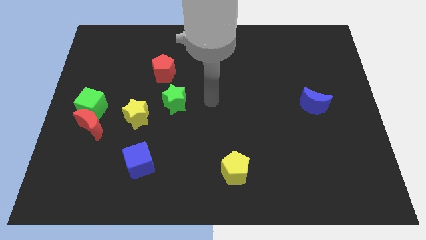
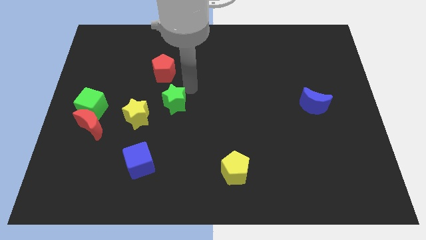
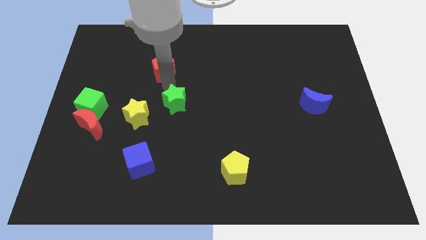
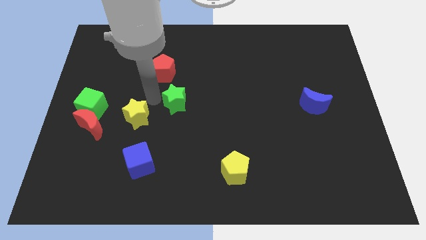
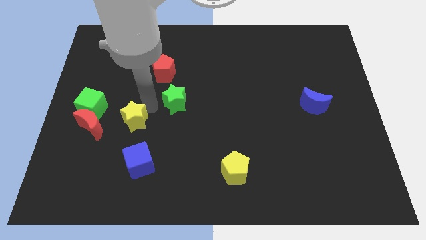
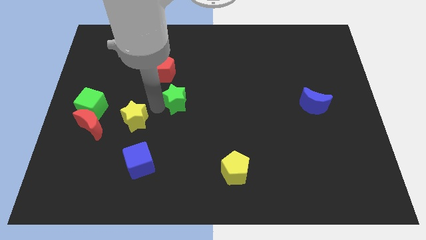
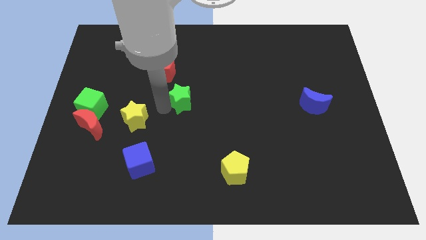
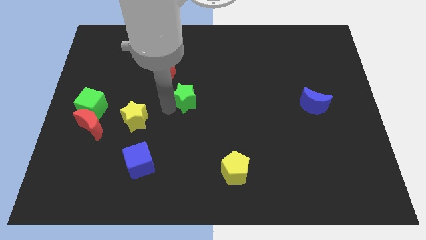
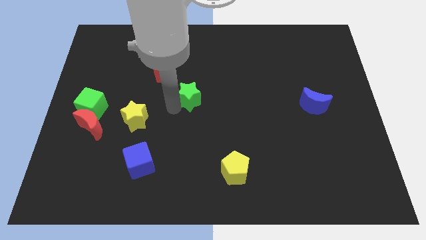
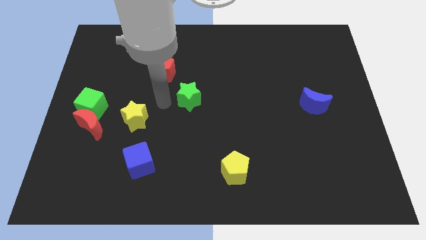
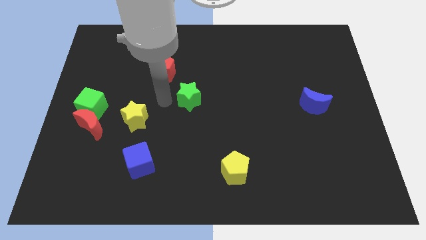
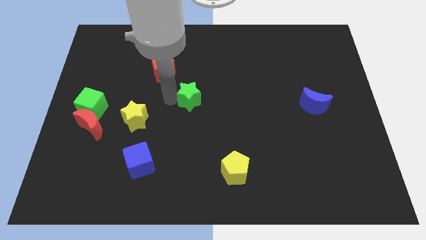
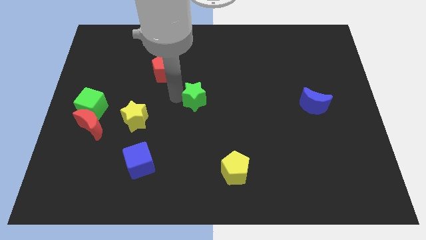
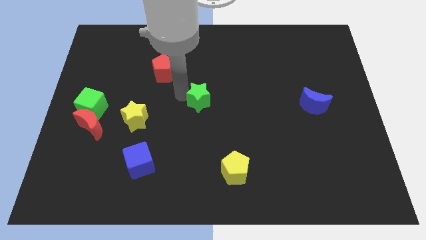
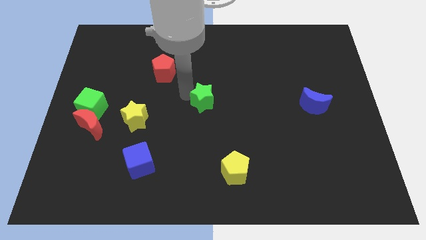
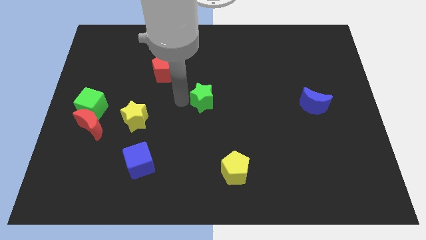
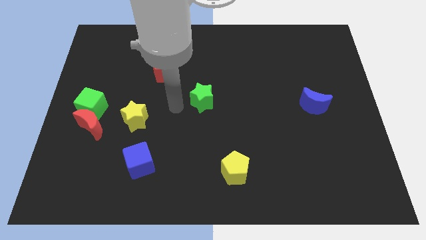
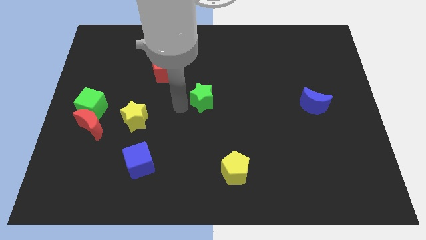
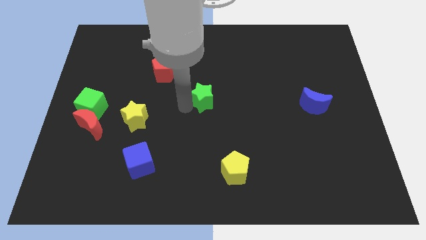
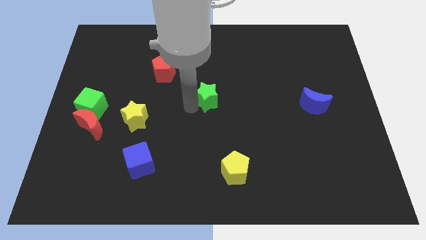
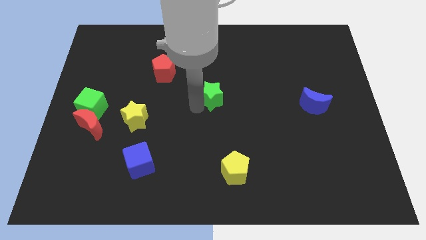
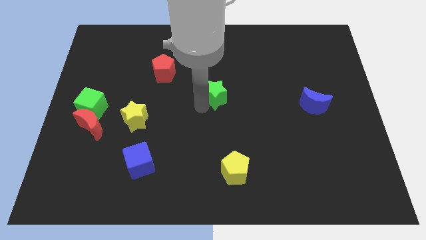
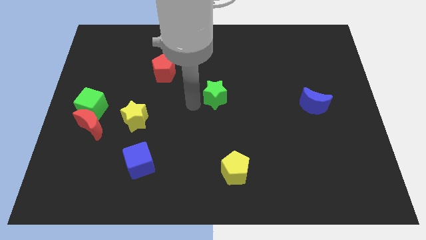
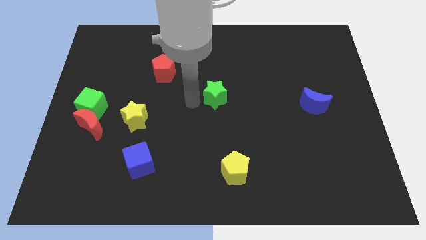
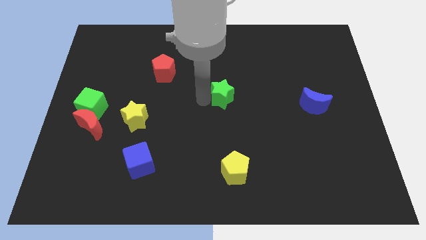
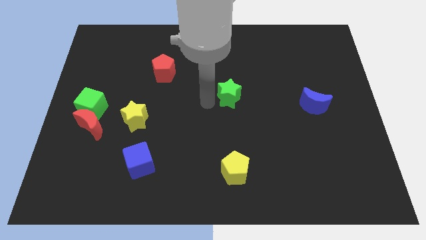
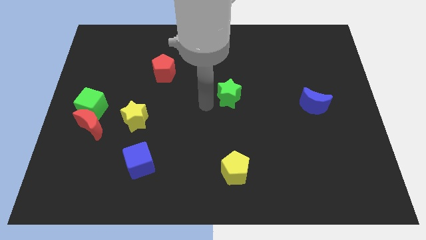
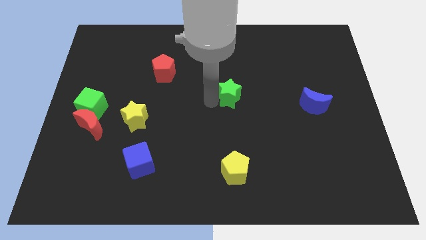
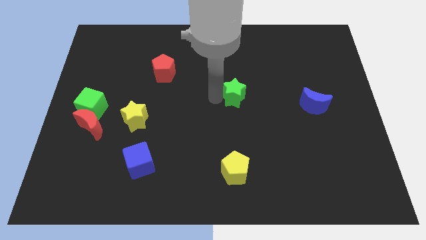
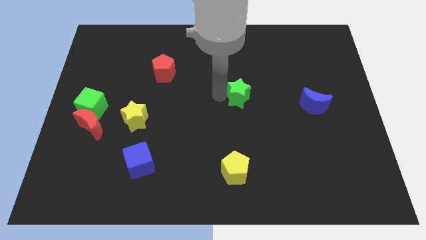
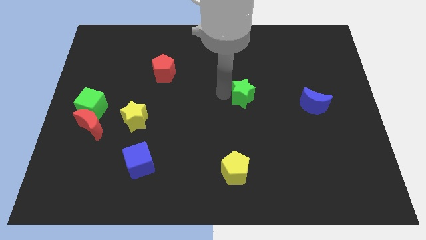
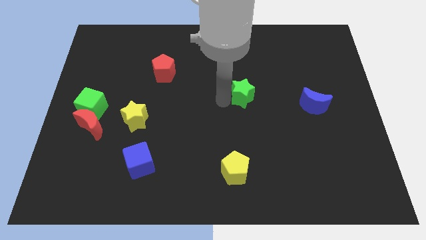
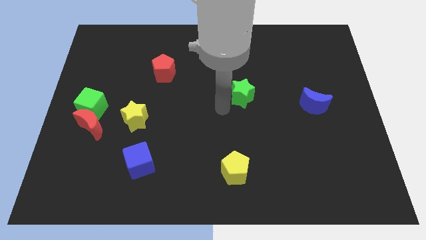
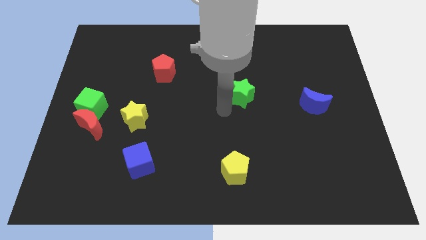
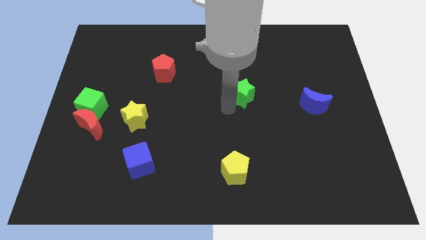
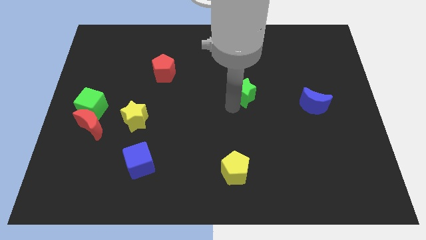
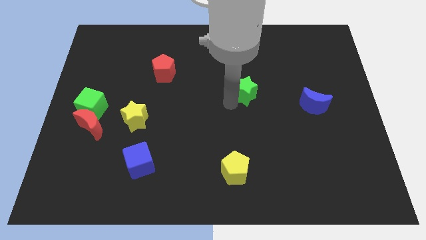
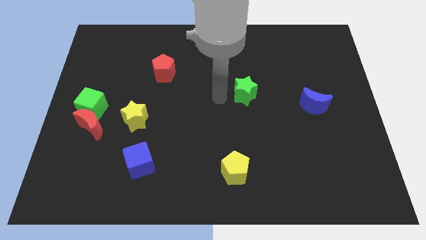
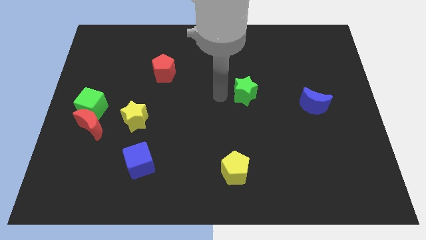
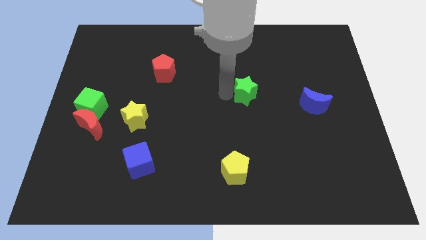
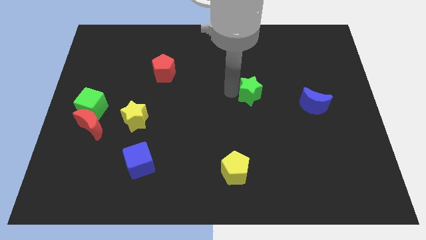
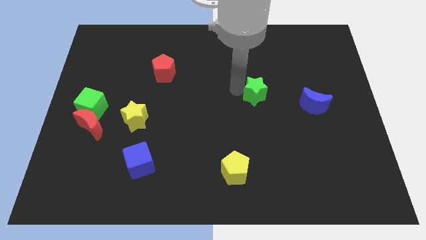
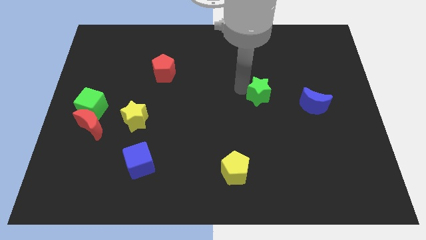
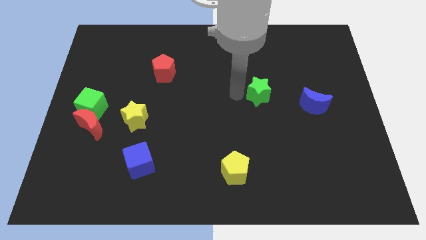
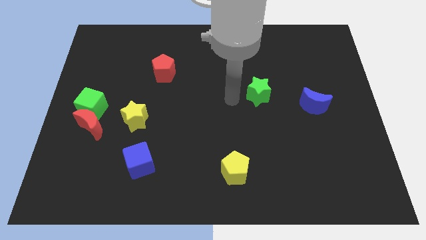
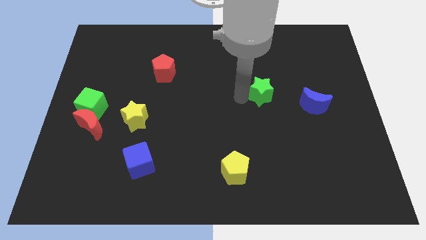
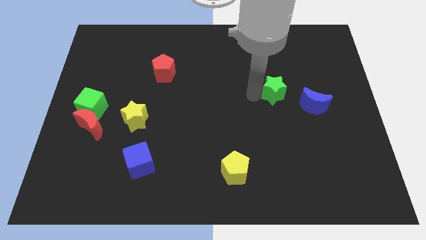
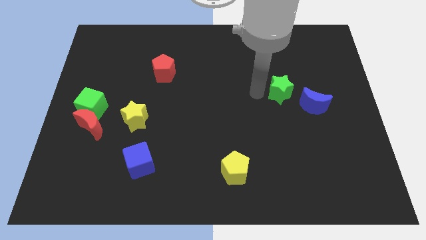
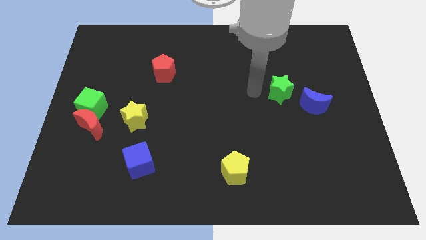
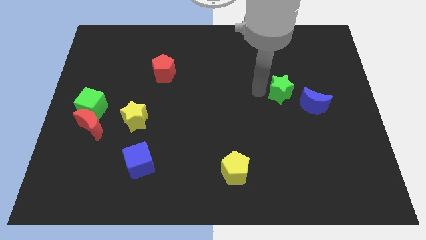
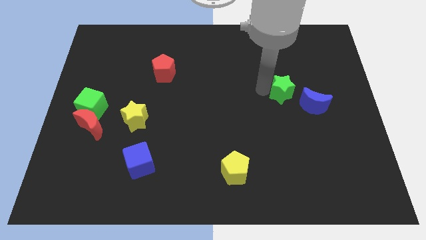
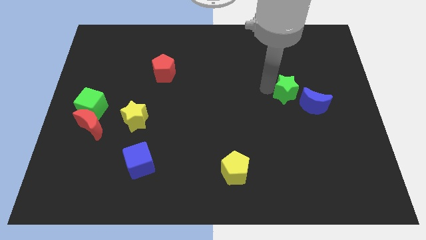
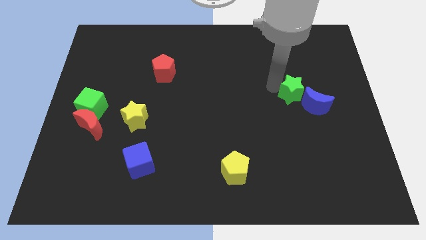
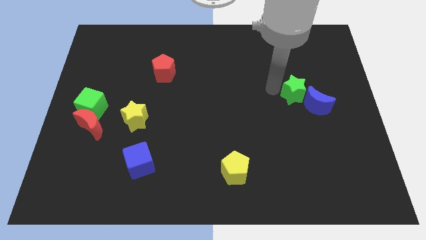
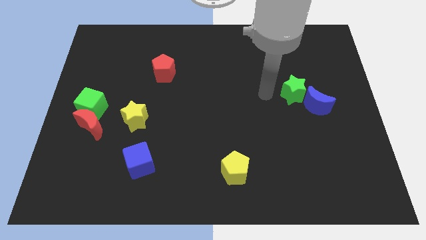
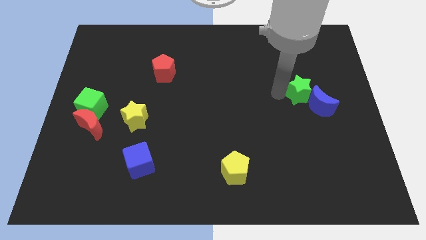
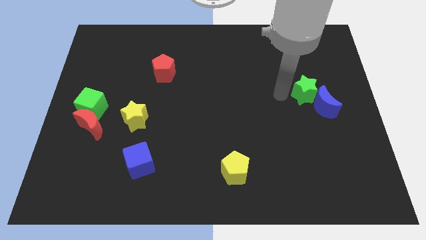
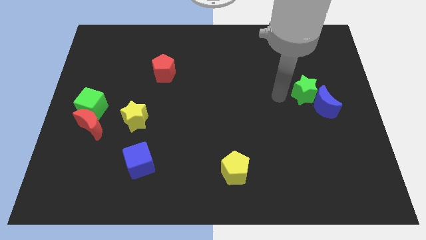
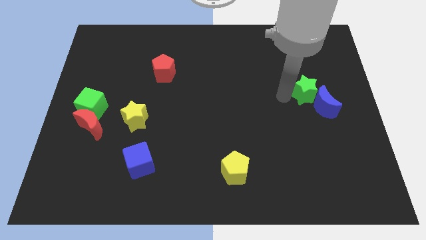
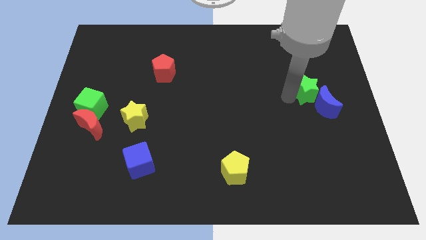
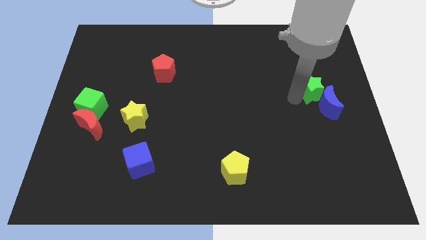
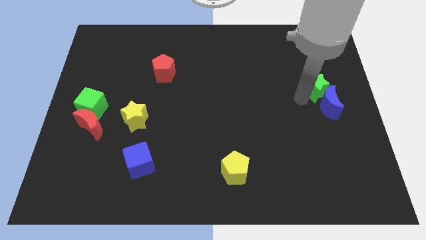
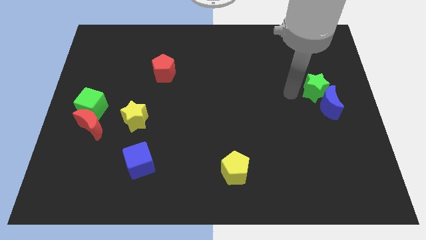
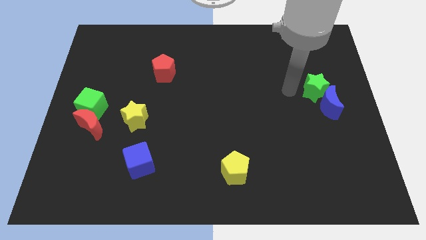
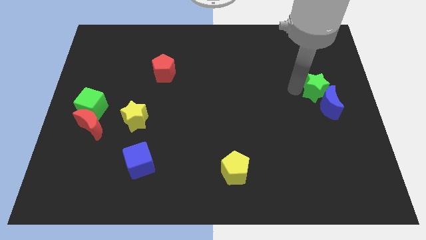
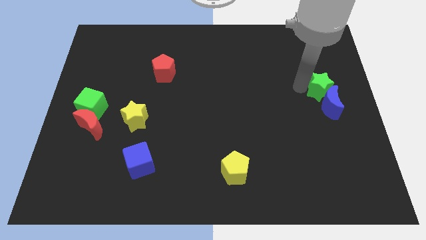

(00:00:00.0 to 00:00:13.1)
push the green star to the right side of the board
